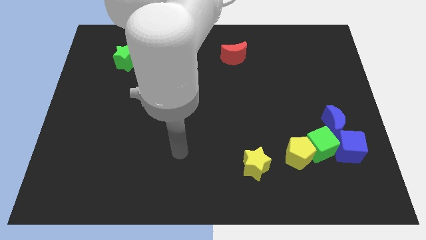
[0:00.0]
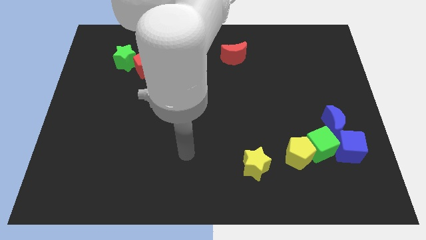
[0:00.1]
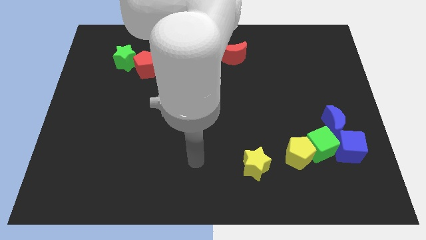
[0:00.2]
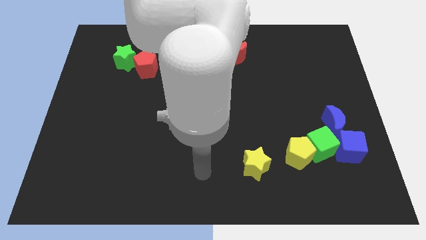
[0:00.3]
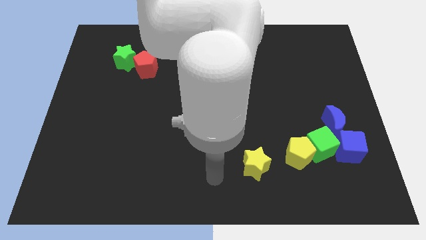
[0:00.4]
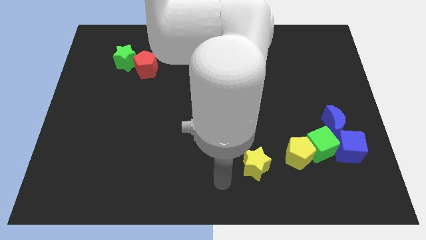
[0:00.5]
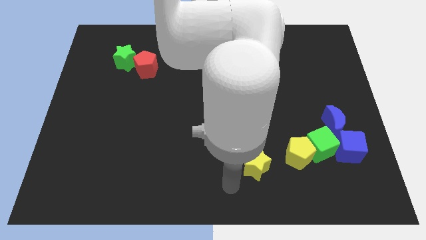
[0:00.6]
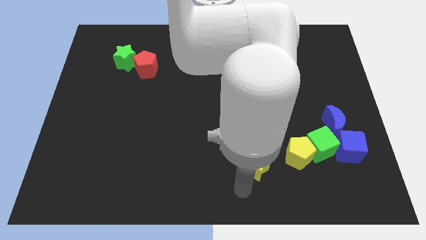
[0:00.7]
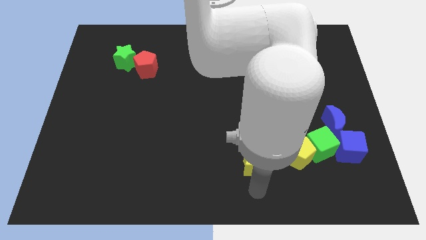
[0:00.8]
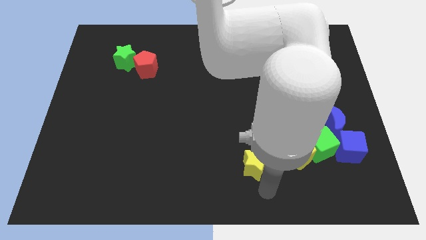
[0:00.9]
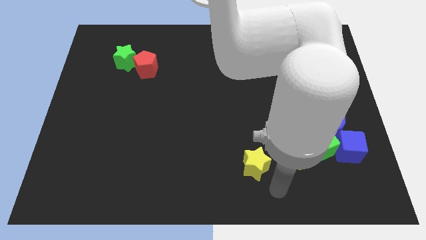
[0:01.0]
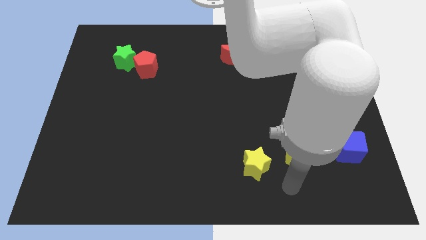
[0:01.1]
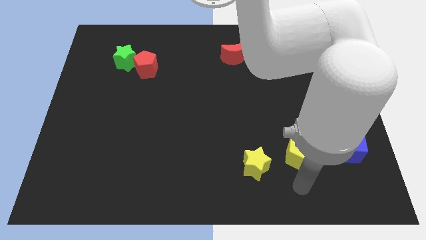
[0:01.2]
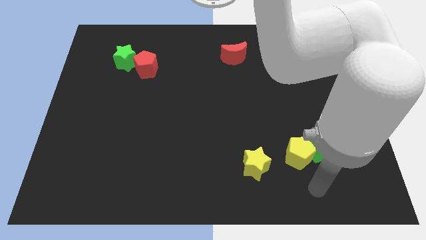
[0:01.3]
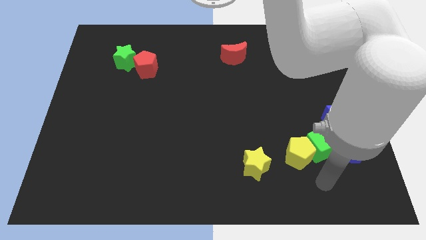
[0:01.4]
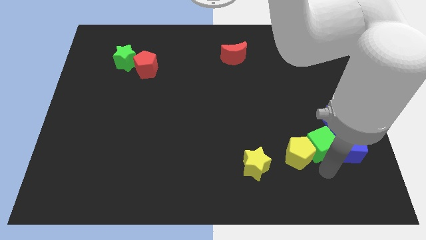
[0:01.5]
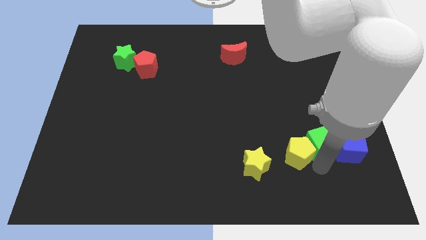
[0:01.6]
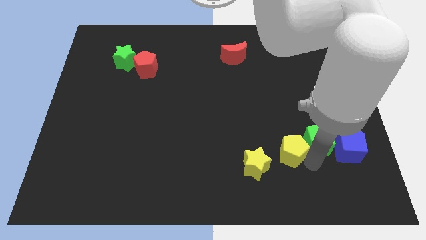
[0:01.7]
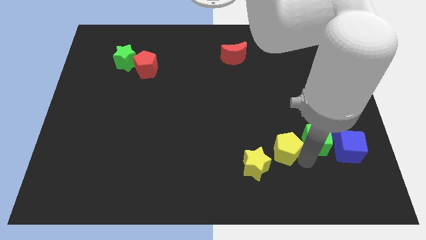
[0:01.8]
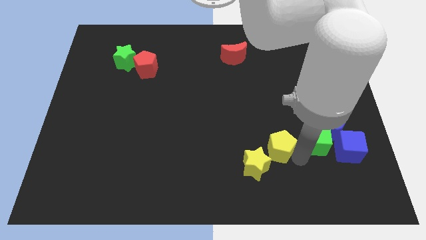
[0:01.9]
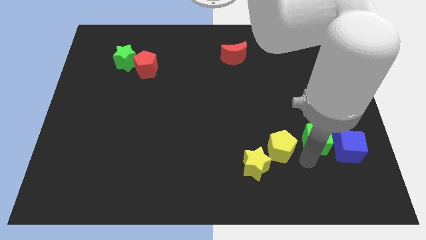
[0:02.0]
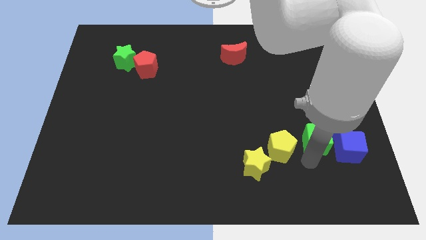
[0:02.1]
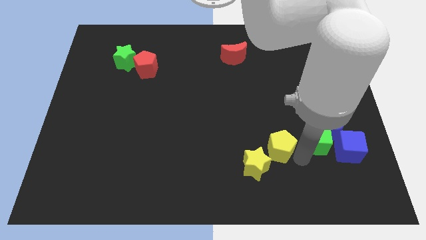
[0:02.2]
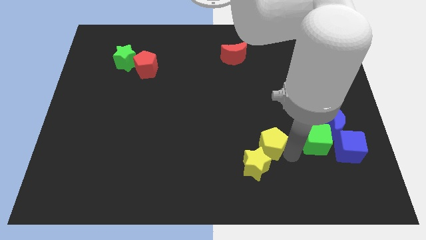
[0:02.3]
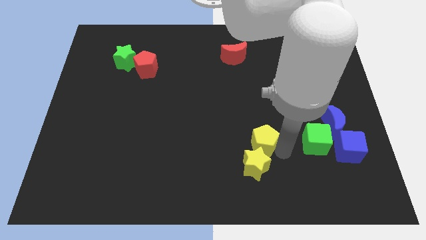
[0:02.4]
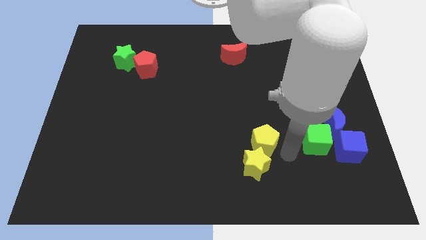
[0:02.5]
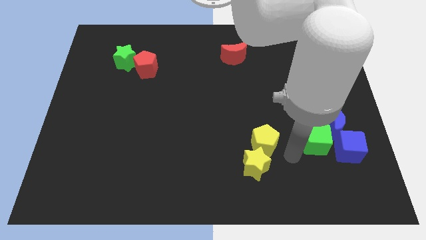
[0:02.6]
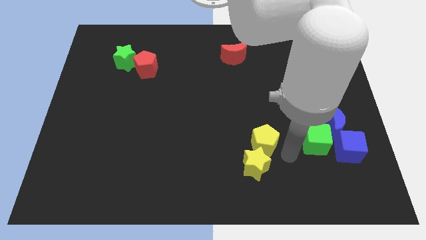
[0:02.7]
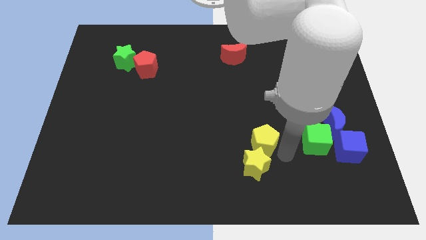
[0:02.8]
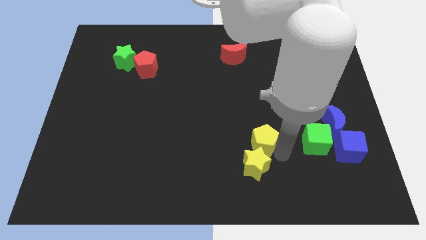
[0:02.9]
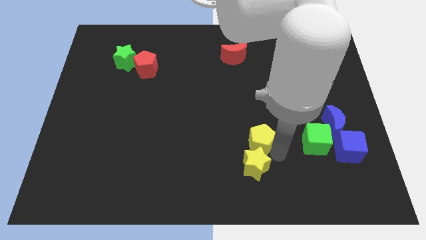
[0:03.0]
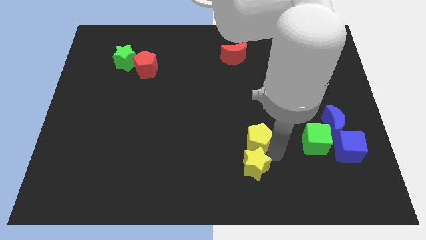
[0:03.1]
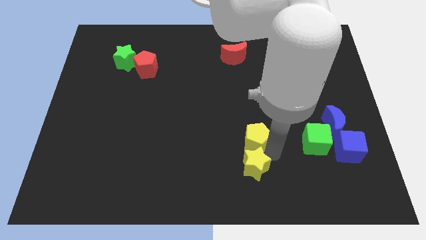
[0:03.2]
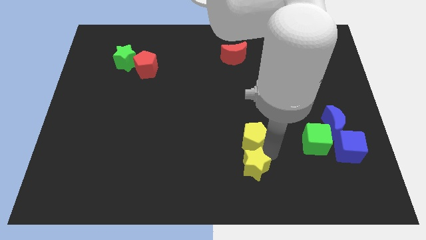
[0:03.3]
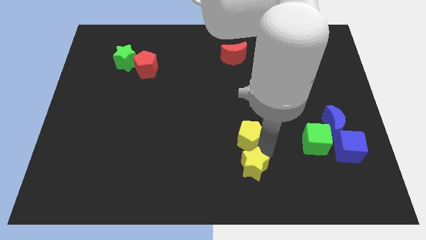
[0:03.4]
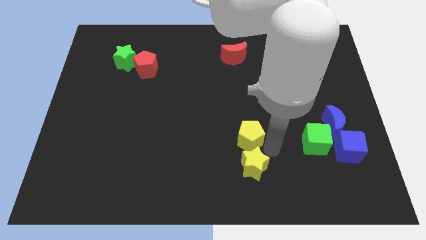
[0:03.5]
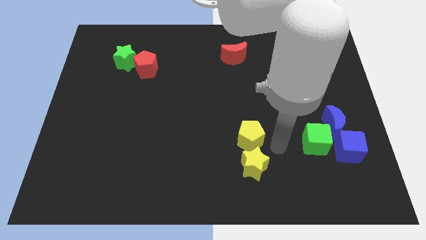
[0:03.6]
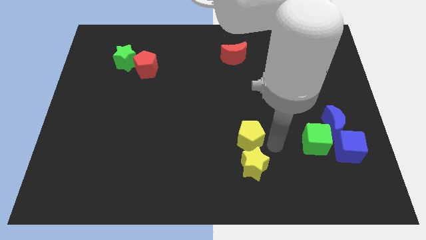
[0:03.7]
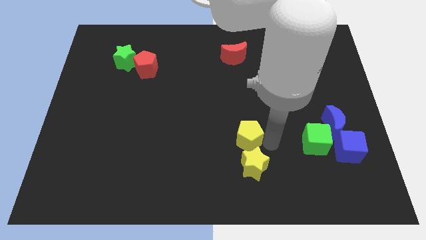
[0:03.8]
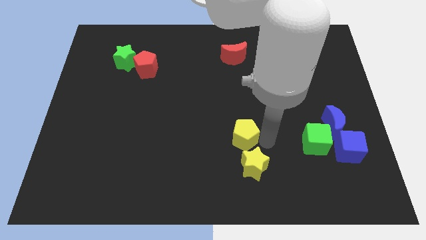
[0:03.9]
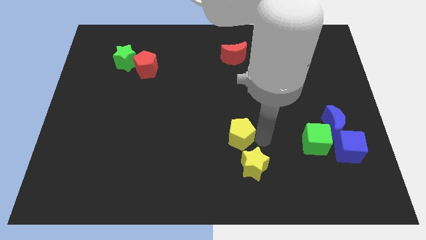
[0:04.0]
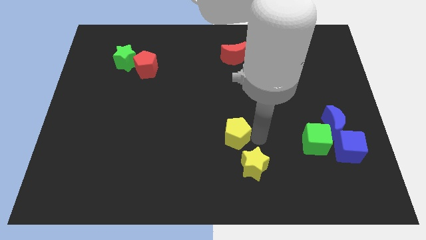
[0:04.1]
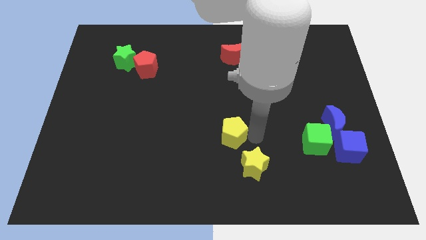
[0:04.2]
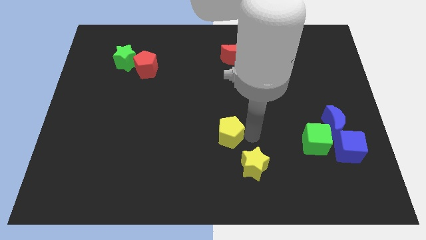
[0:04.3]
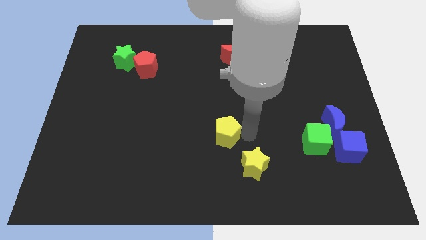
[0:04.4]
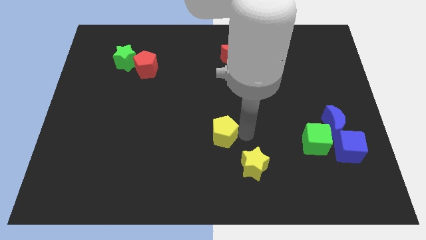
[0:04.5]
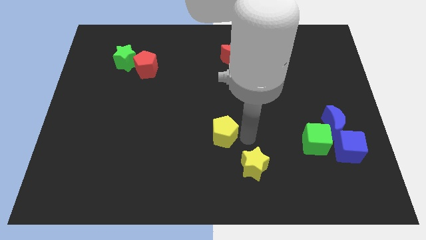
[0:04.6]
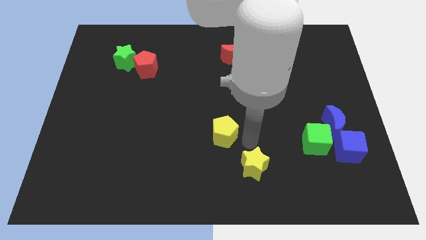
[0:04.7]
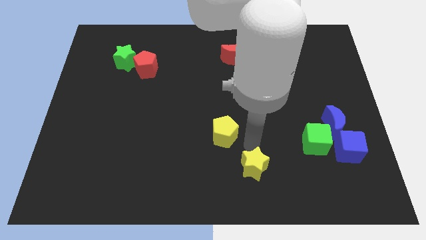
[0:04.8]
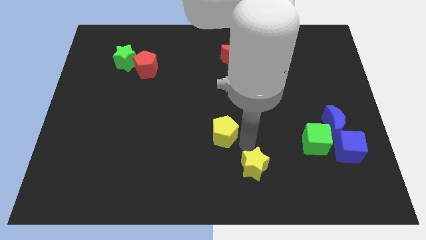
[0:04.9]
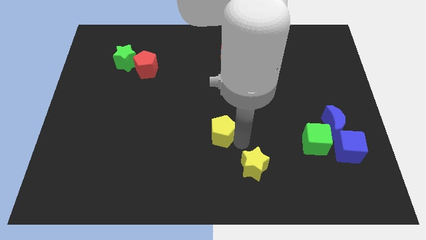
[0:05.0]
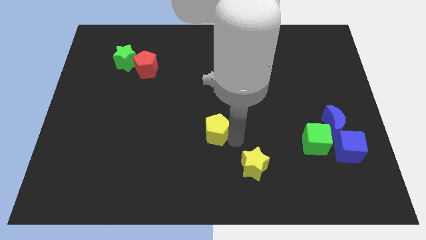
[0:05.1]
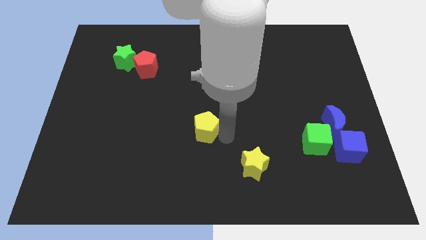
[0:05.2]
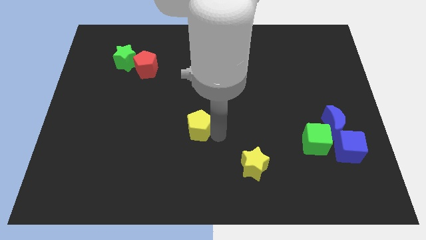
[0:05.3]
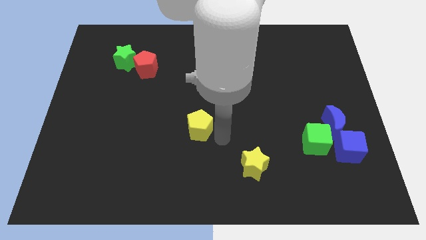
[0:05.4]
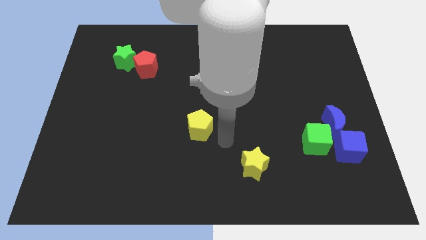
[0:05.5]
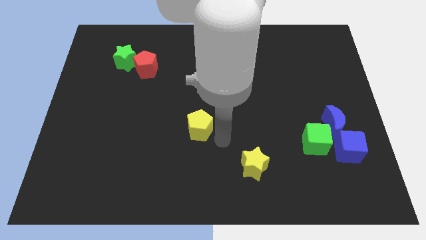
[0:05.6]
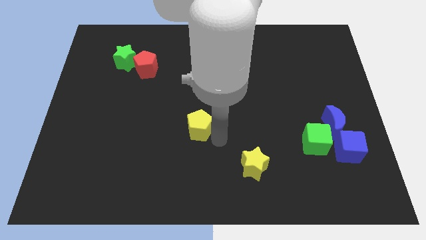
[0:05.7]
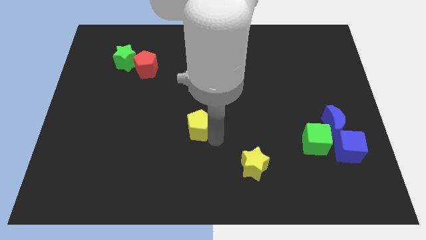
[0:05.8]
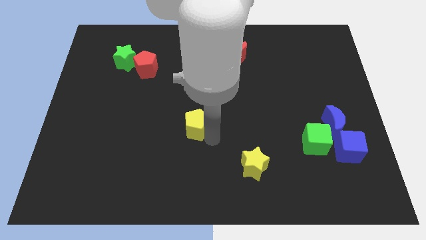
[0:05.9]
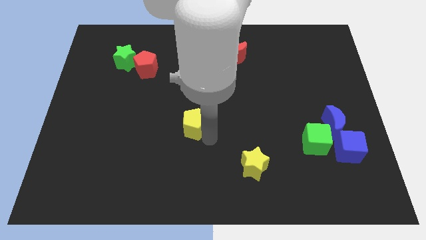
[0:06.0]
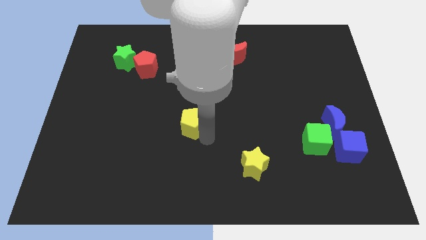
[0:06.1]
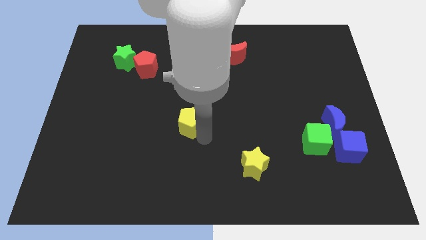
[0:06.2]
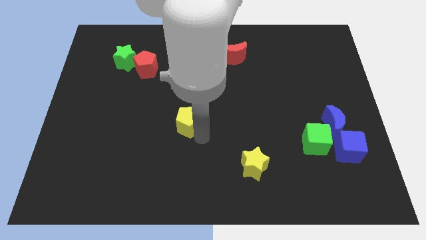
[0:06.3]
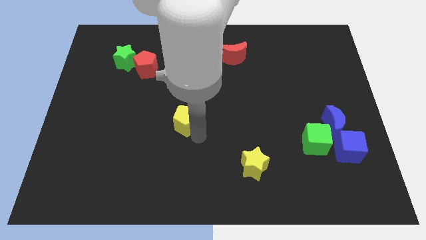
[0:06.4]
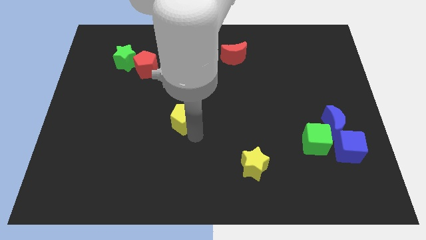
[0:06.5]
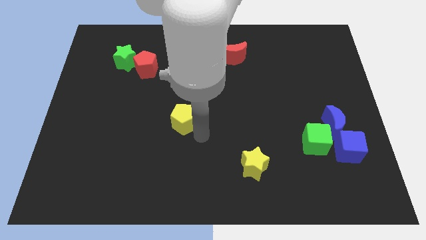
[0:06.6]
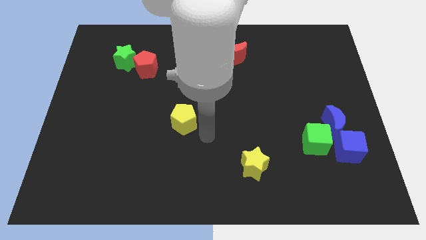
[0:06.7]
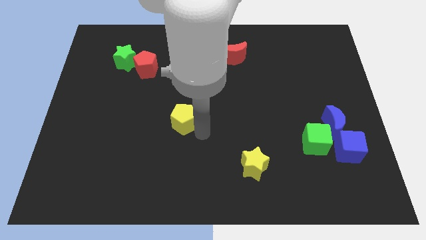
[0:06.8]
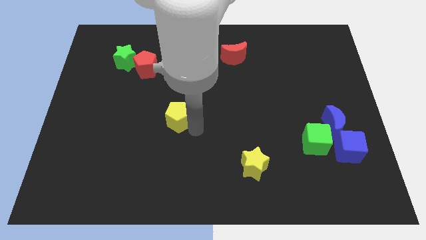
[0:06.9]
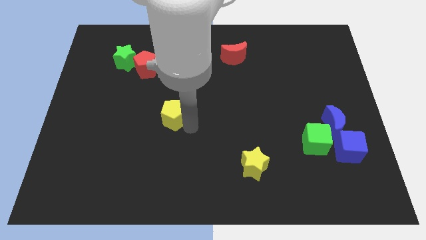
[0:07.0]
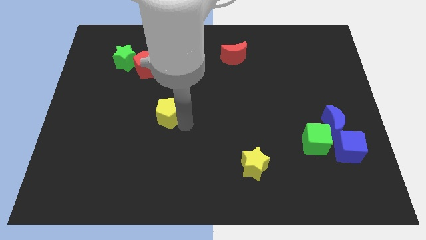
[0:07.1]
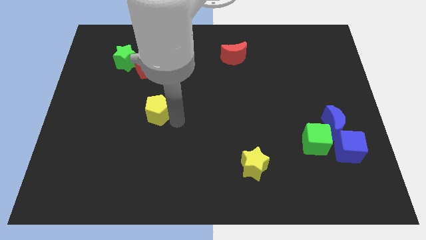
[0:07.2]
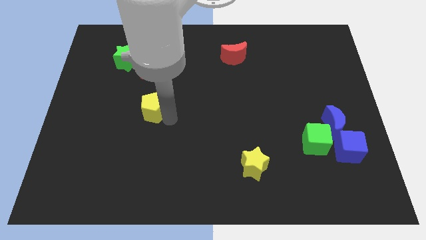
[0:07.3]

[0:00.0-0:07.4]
put the yellow pentagon to the bottom side of the red pentagon
